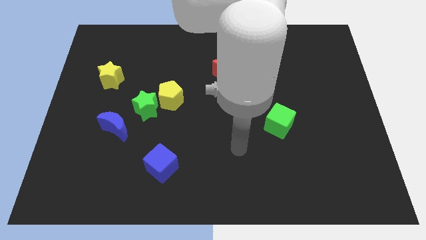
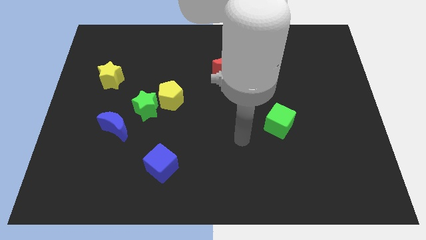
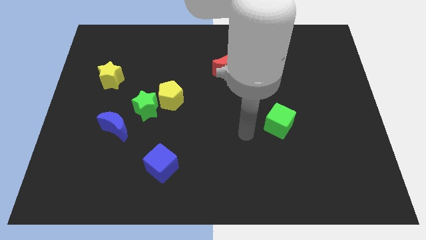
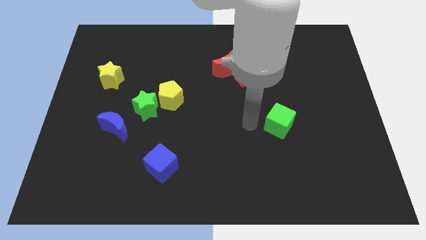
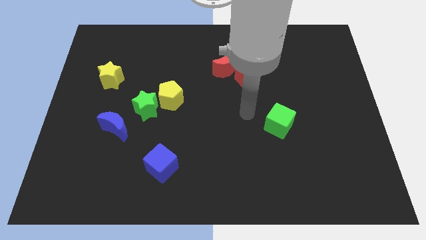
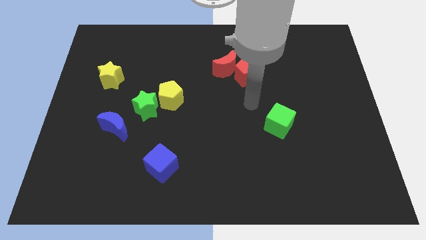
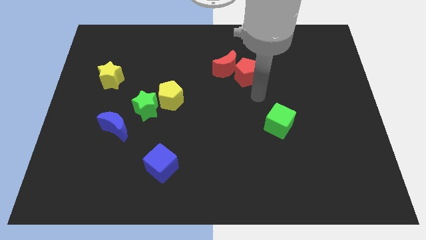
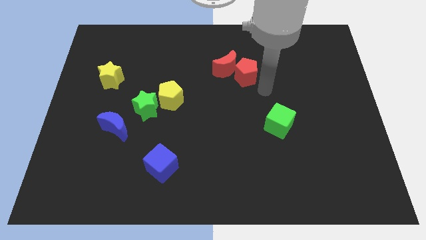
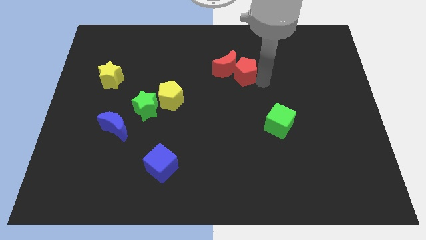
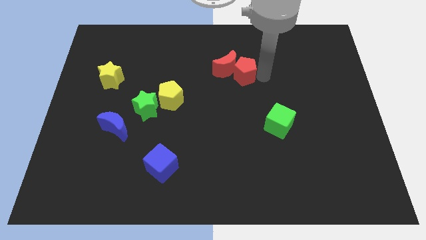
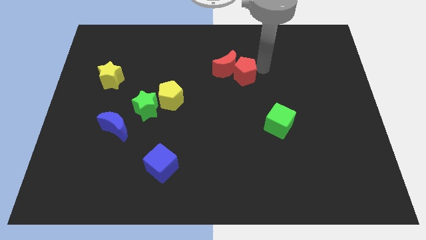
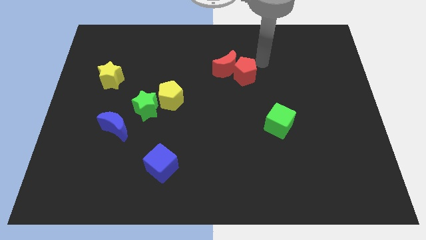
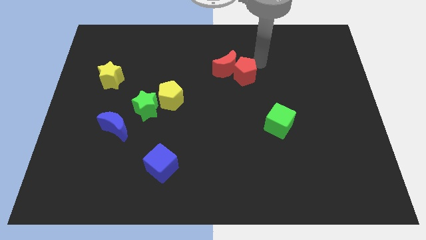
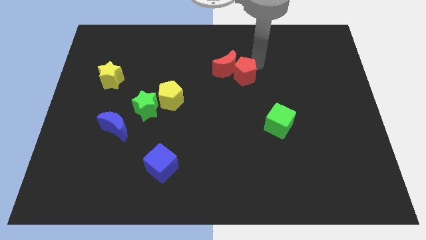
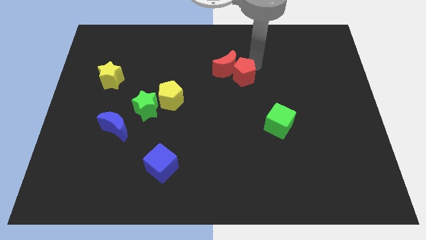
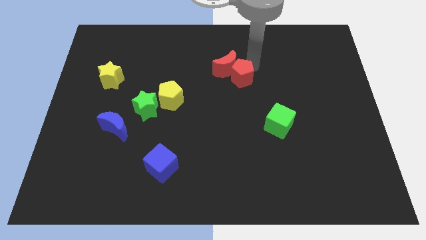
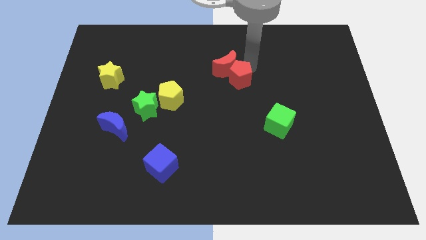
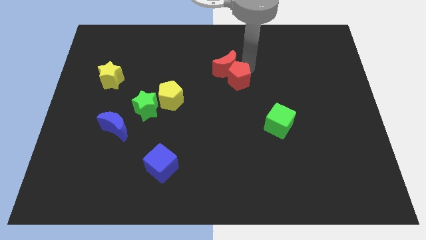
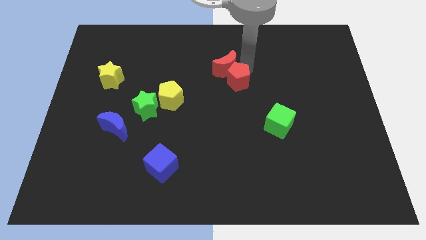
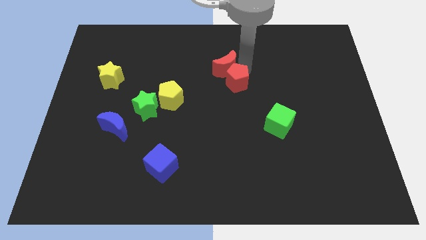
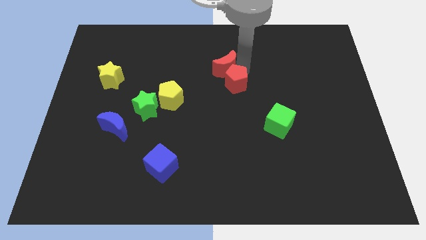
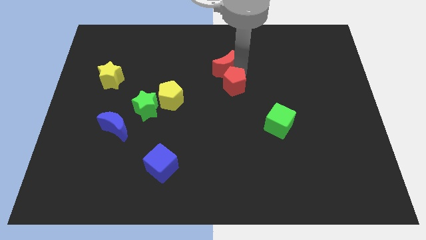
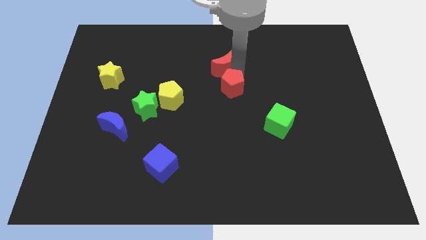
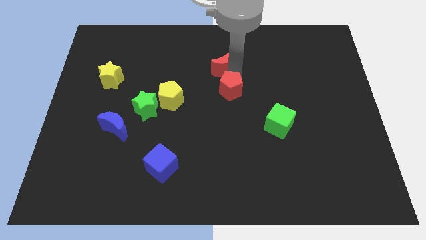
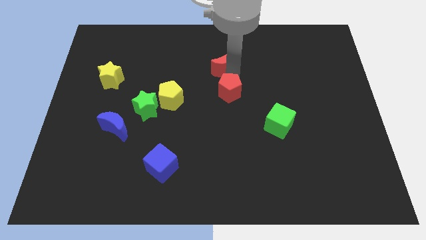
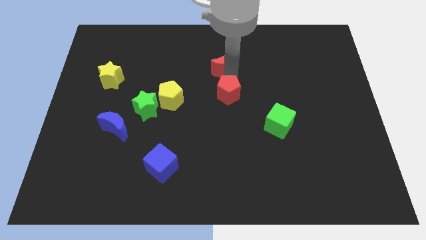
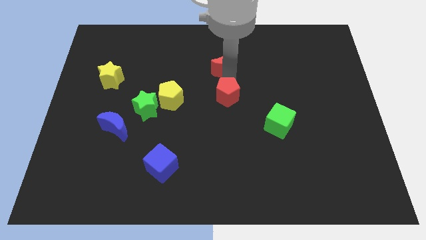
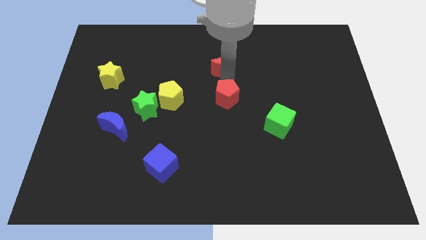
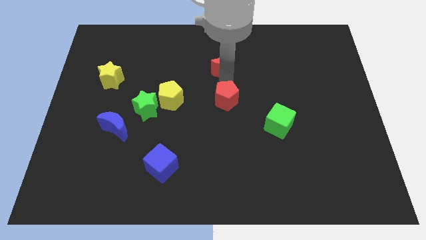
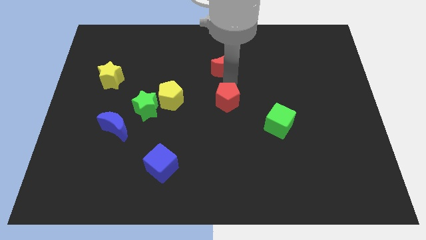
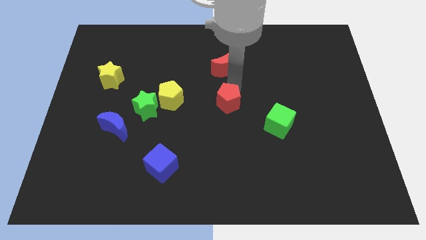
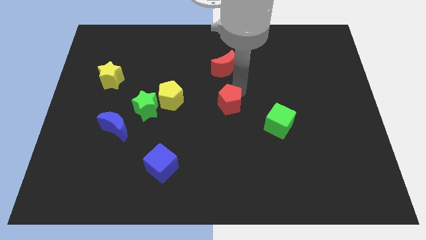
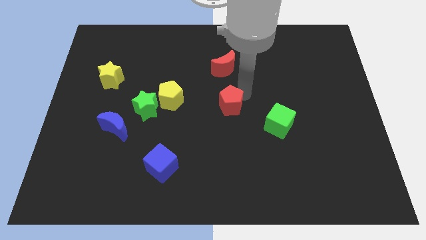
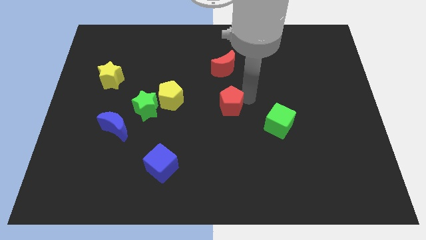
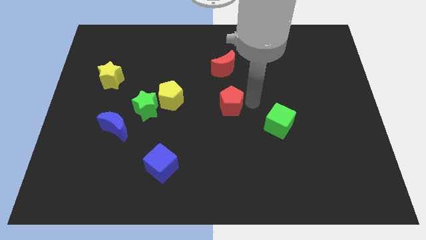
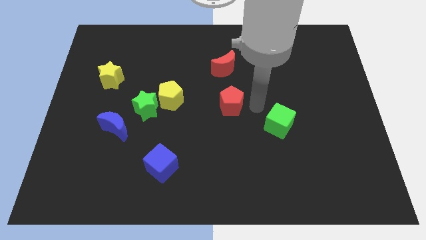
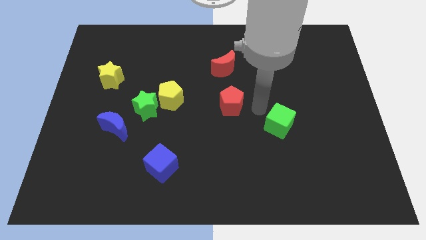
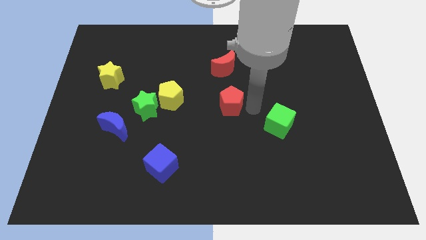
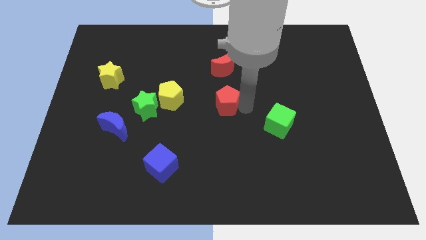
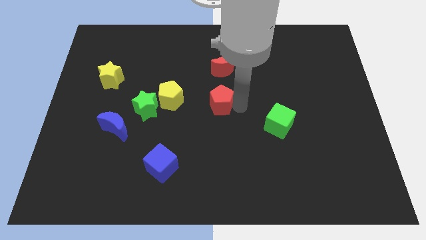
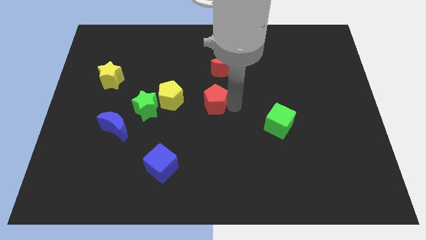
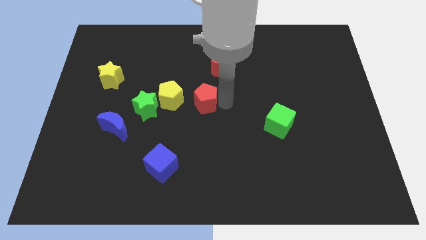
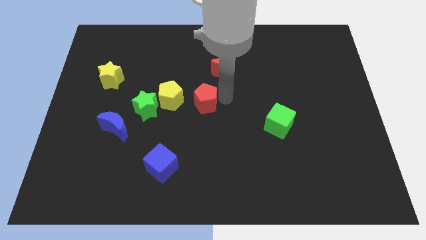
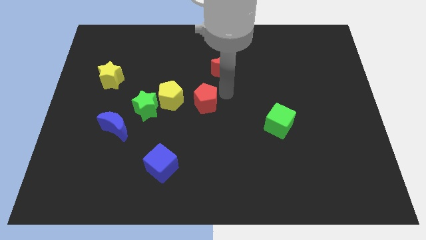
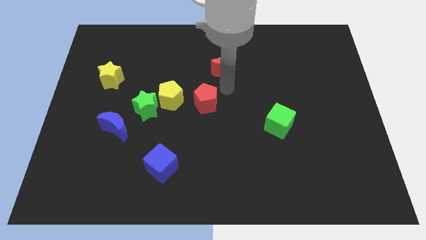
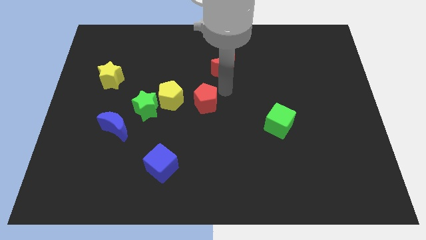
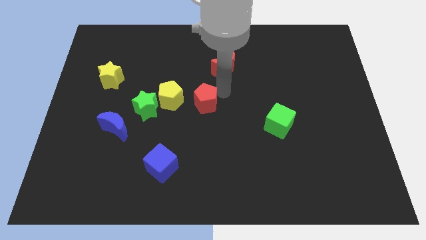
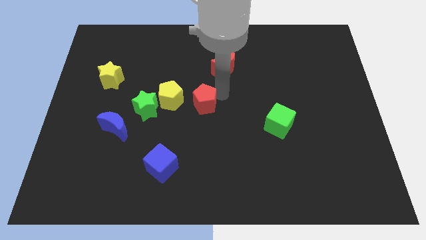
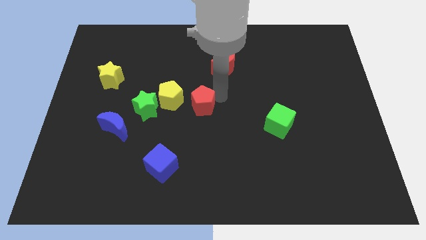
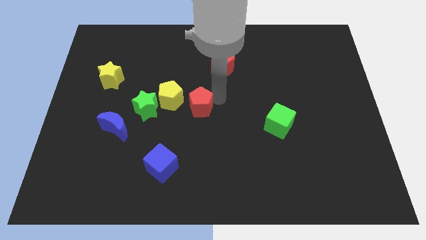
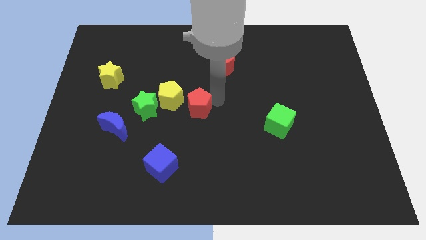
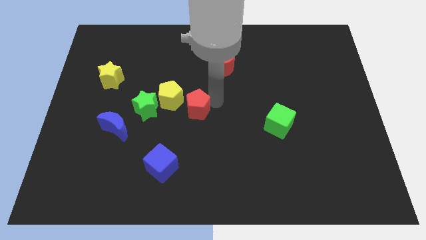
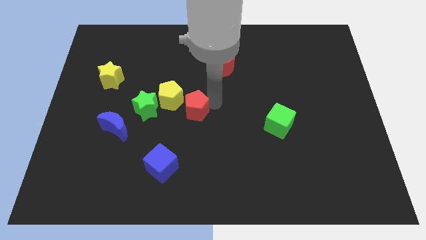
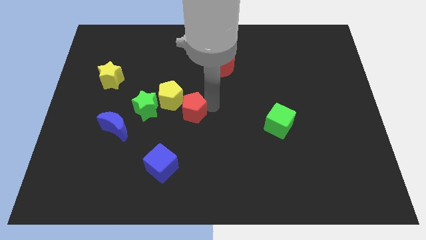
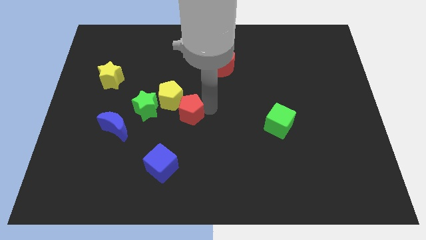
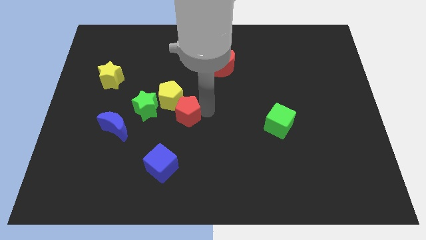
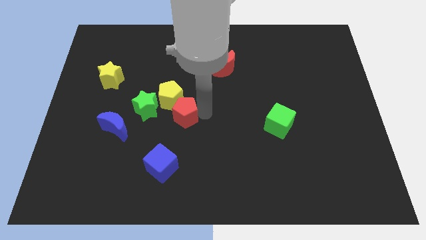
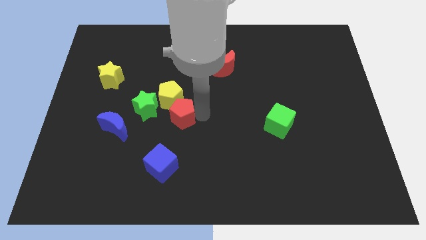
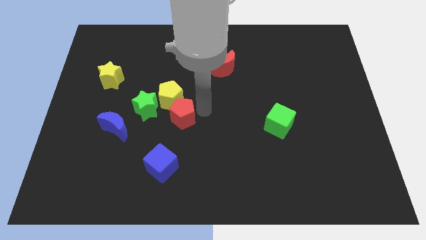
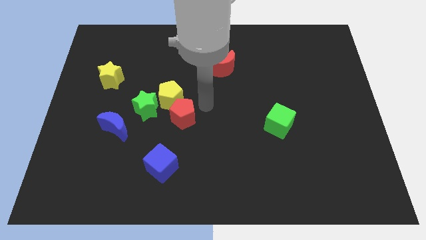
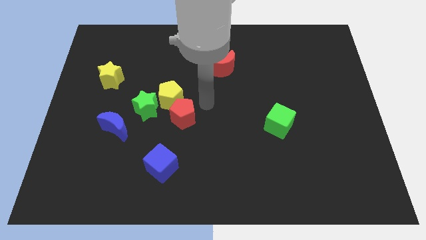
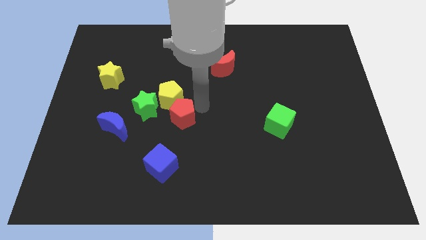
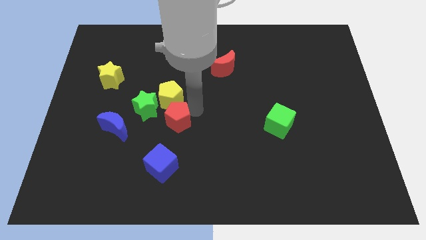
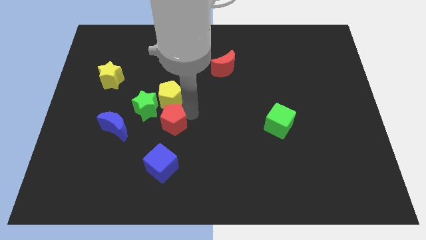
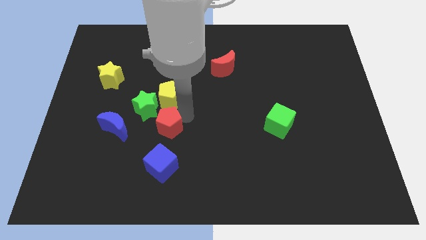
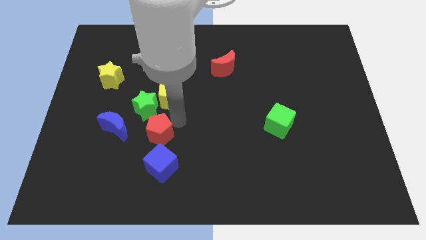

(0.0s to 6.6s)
move the red pentagon to the bottom of the green star
